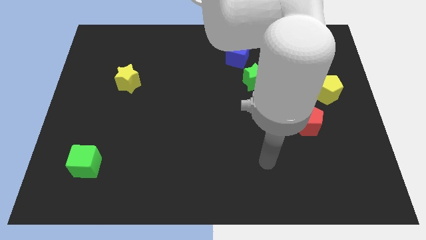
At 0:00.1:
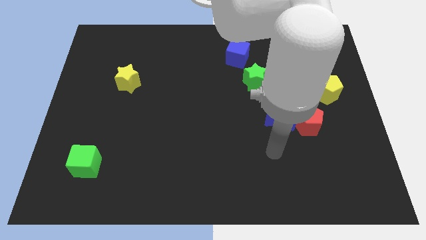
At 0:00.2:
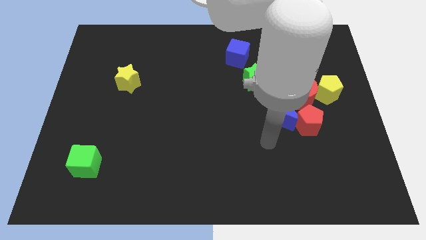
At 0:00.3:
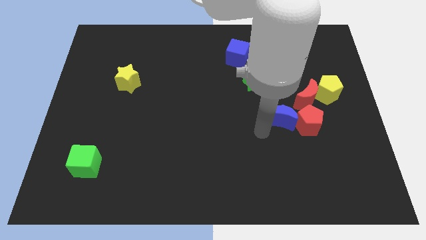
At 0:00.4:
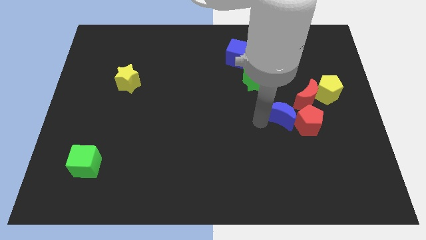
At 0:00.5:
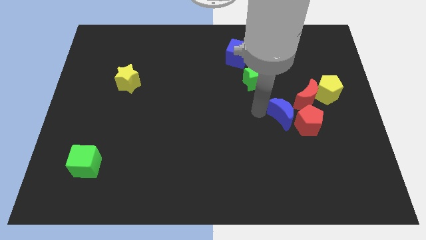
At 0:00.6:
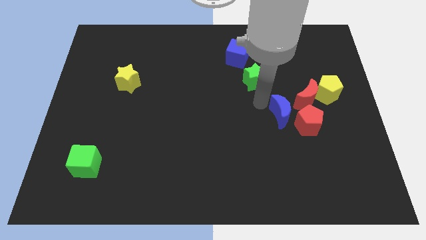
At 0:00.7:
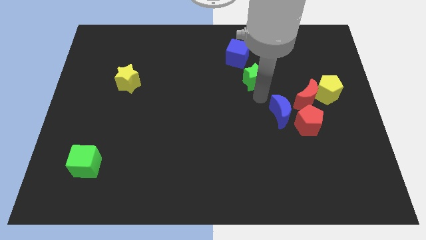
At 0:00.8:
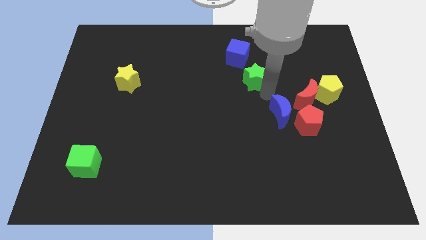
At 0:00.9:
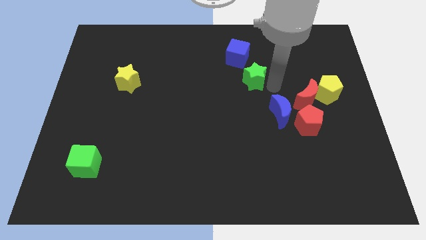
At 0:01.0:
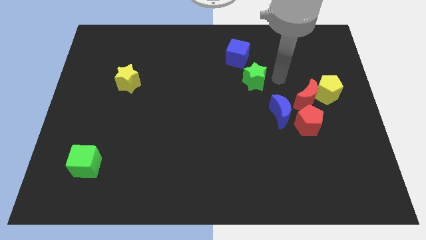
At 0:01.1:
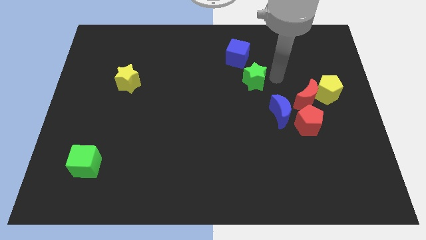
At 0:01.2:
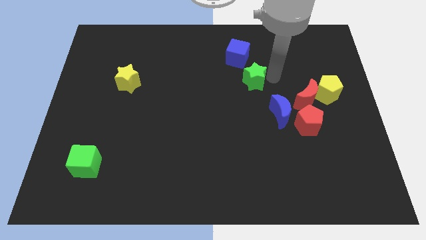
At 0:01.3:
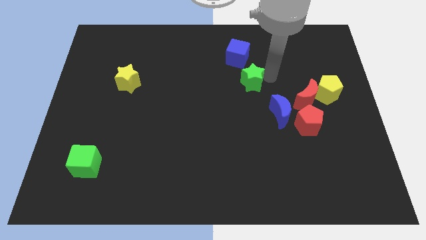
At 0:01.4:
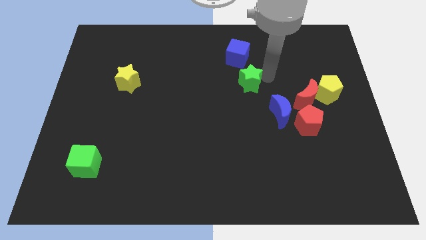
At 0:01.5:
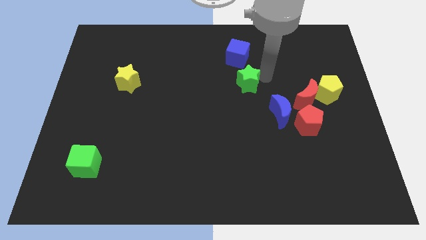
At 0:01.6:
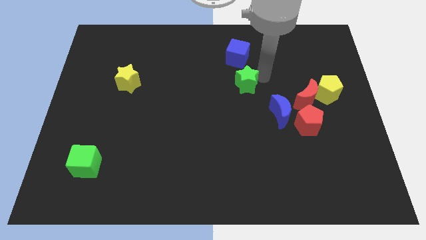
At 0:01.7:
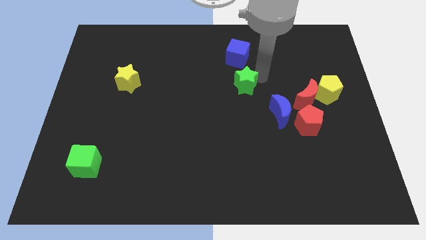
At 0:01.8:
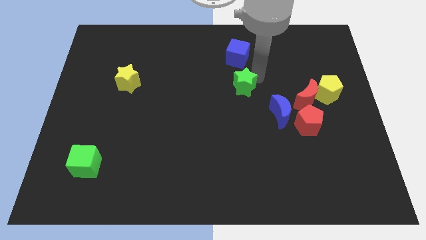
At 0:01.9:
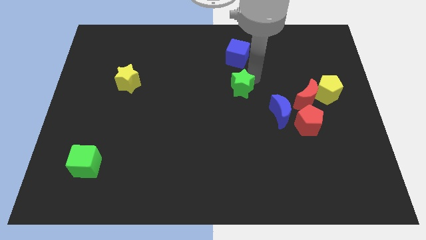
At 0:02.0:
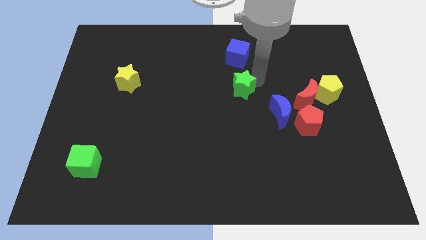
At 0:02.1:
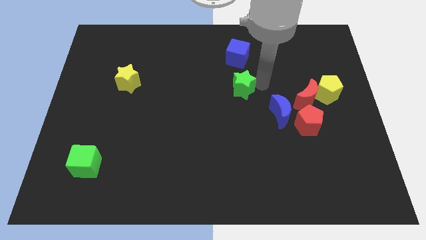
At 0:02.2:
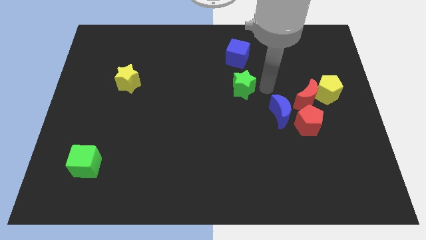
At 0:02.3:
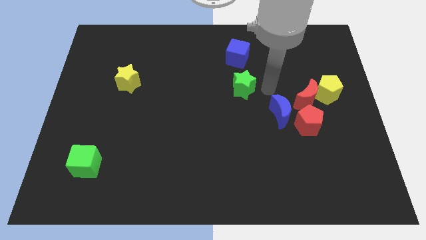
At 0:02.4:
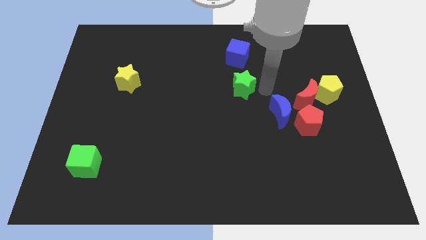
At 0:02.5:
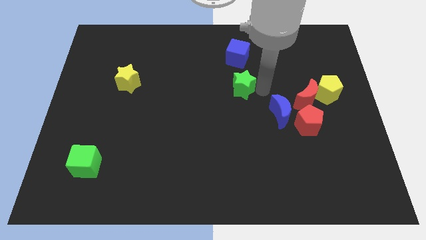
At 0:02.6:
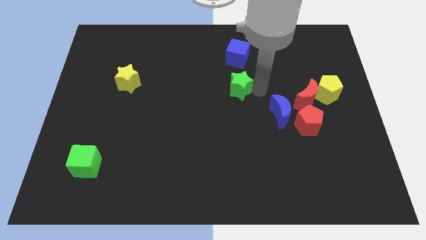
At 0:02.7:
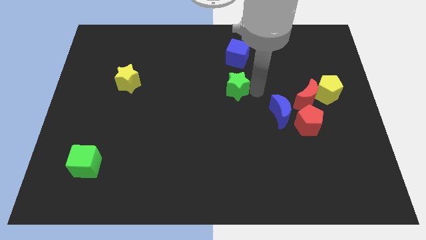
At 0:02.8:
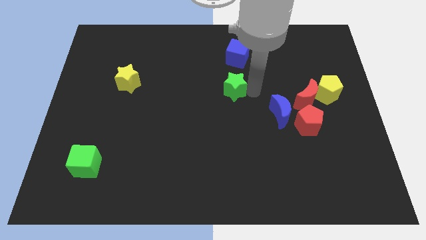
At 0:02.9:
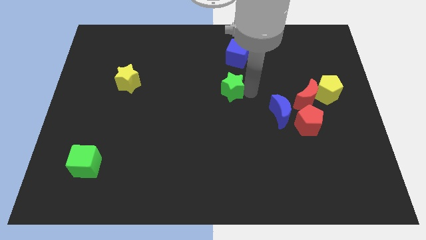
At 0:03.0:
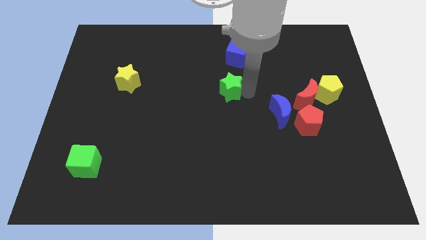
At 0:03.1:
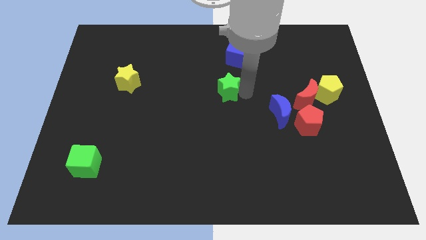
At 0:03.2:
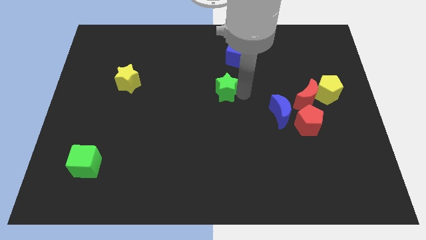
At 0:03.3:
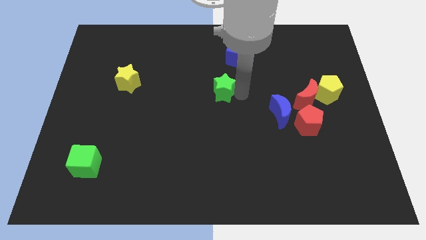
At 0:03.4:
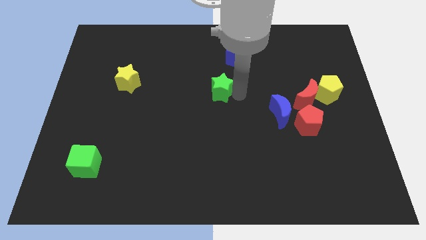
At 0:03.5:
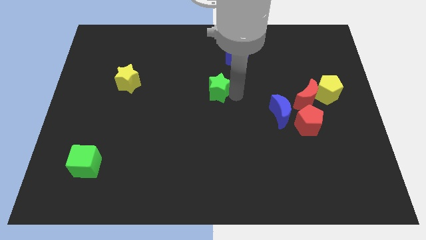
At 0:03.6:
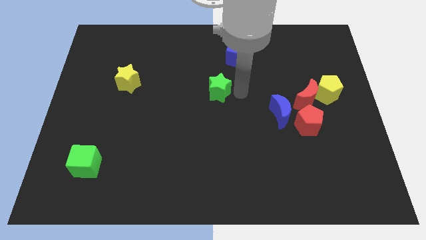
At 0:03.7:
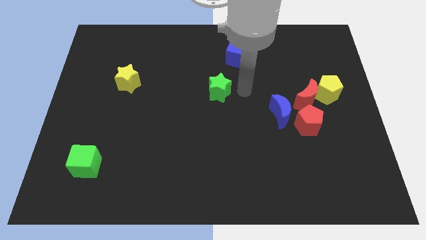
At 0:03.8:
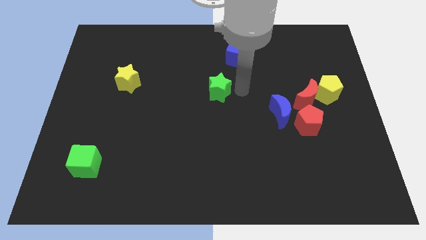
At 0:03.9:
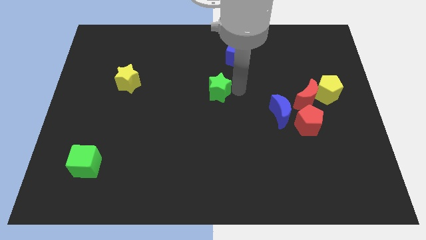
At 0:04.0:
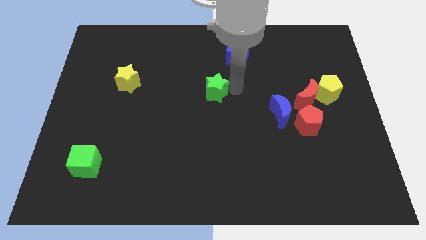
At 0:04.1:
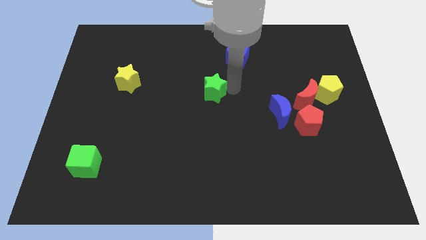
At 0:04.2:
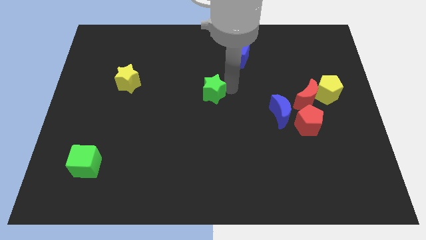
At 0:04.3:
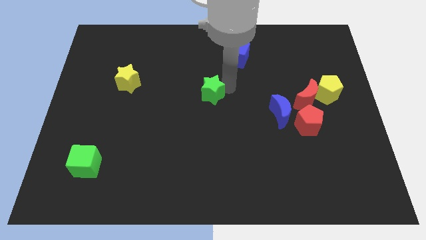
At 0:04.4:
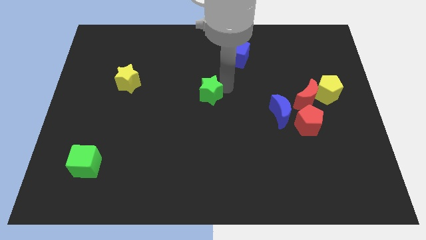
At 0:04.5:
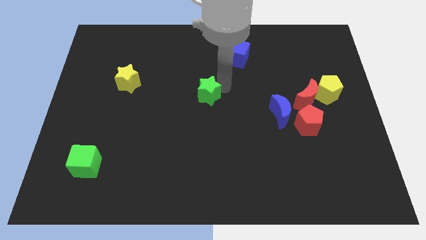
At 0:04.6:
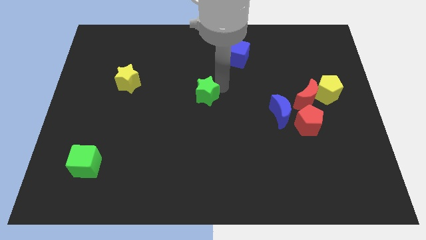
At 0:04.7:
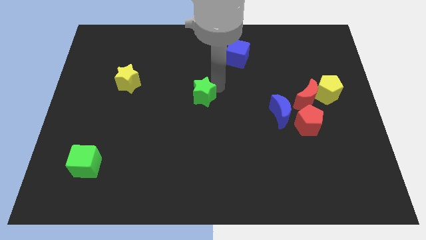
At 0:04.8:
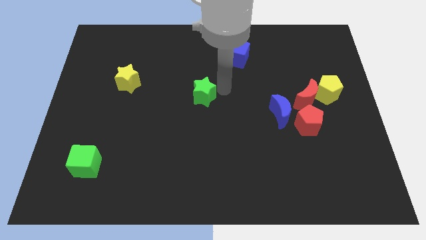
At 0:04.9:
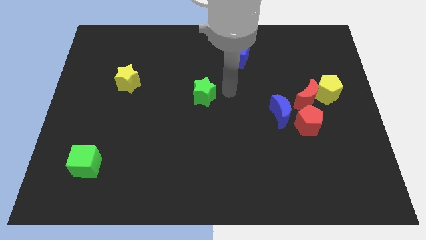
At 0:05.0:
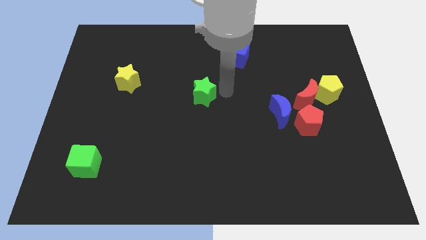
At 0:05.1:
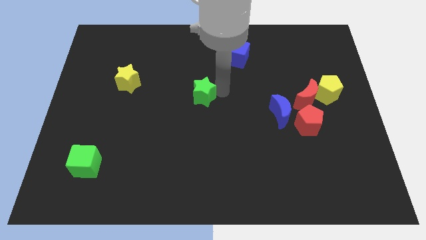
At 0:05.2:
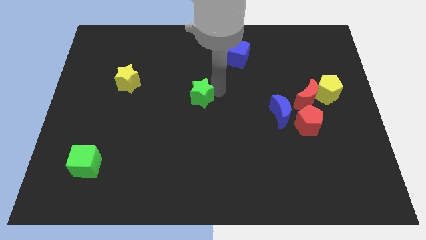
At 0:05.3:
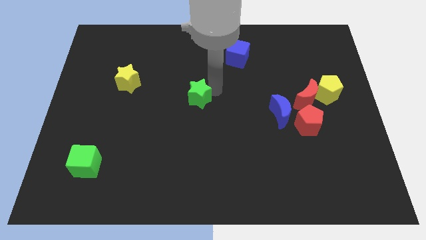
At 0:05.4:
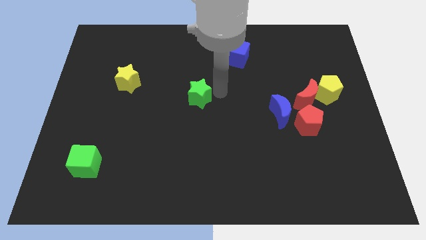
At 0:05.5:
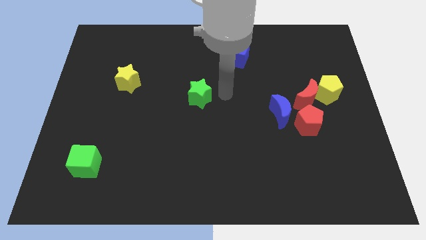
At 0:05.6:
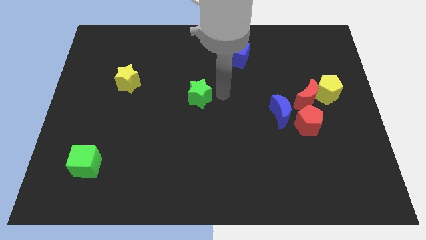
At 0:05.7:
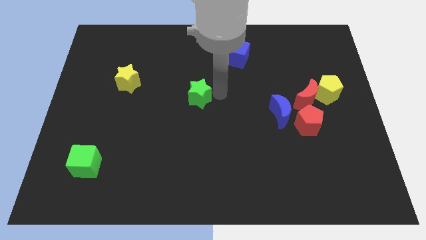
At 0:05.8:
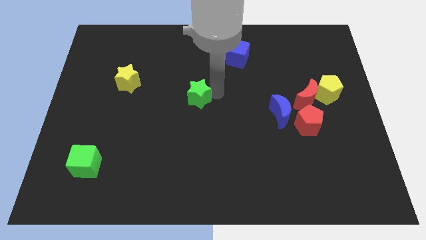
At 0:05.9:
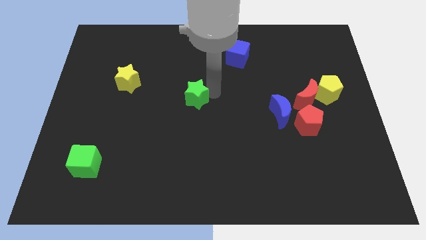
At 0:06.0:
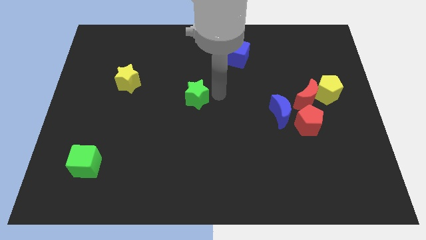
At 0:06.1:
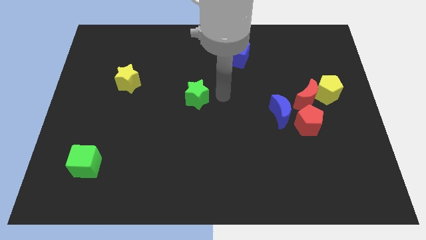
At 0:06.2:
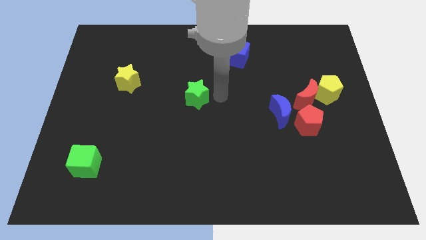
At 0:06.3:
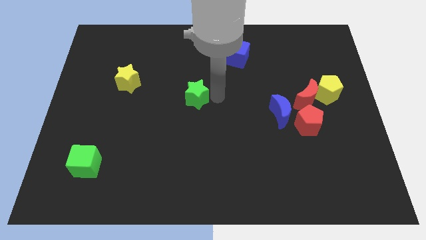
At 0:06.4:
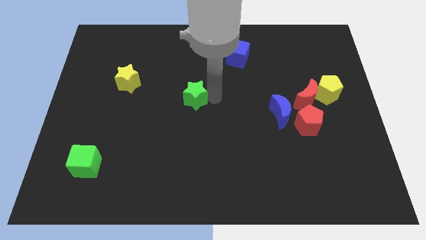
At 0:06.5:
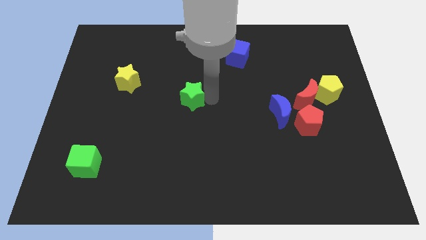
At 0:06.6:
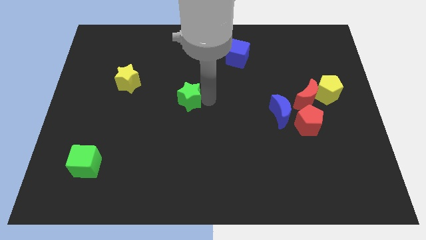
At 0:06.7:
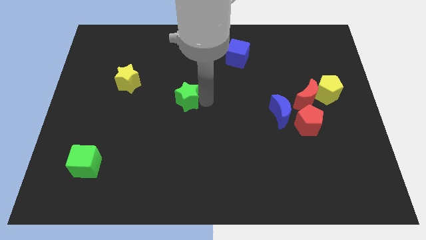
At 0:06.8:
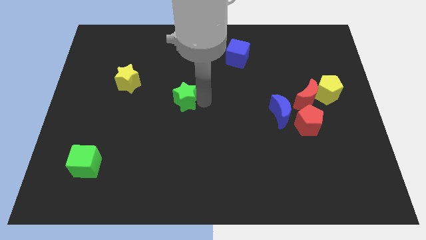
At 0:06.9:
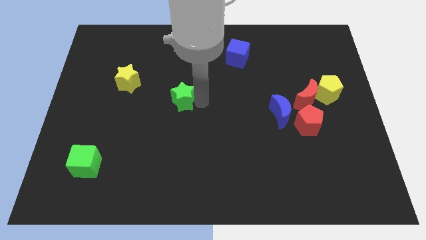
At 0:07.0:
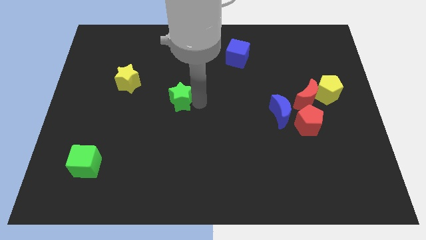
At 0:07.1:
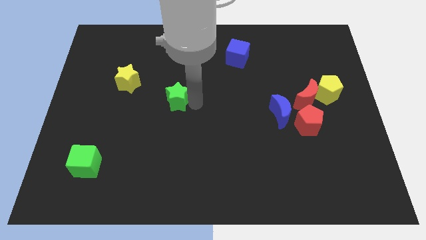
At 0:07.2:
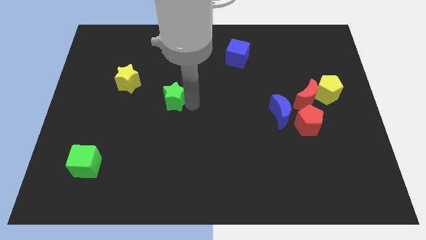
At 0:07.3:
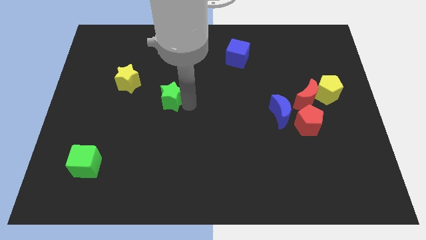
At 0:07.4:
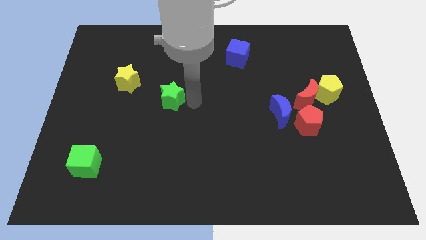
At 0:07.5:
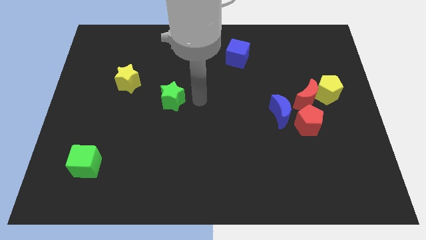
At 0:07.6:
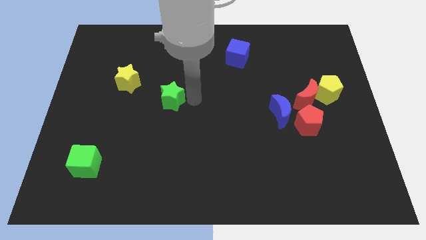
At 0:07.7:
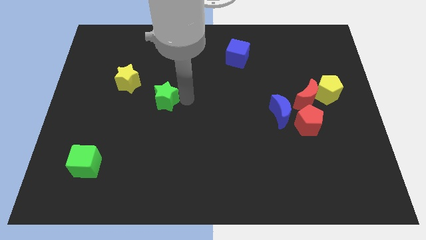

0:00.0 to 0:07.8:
push the green star to the bottom right side of the yellow star
